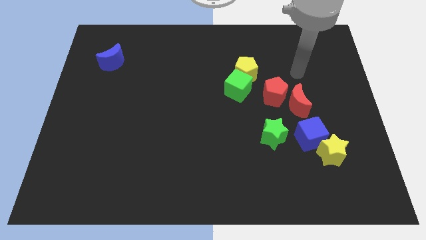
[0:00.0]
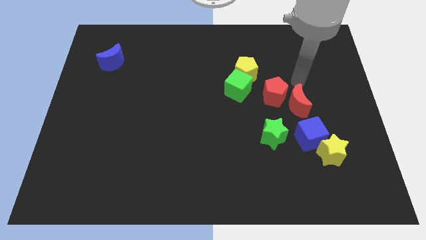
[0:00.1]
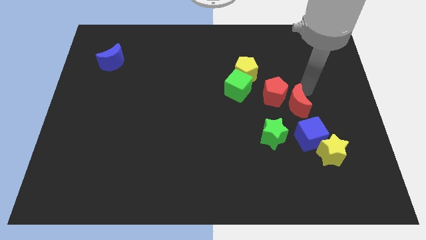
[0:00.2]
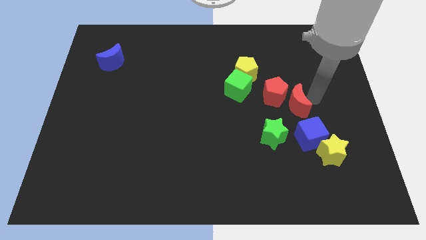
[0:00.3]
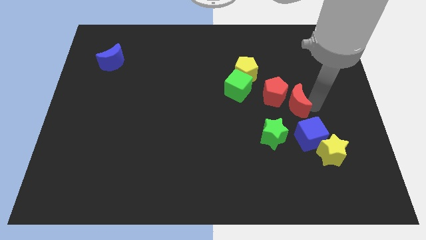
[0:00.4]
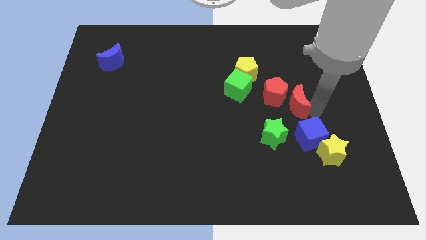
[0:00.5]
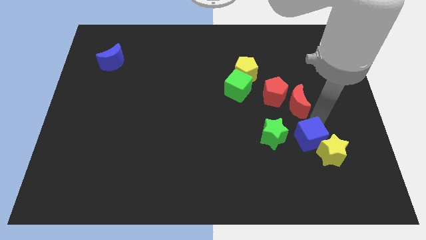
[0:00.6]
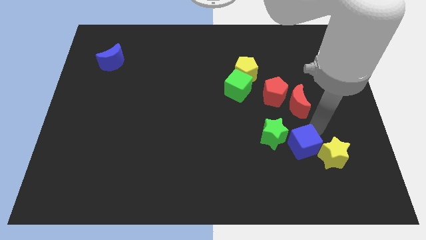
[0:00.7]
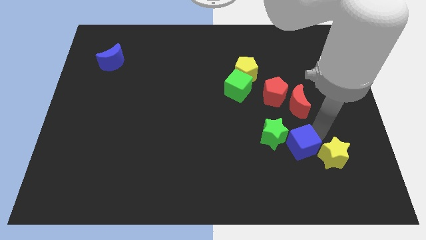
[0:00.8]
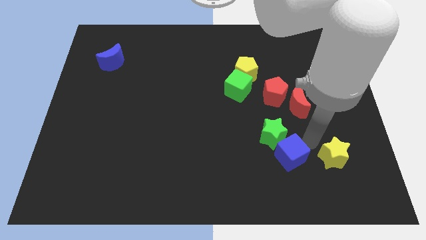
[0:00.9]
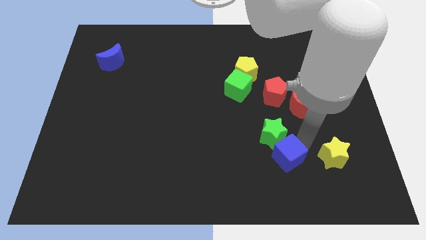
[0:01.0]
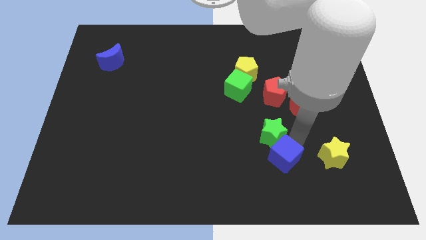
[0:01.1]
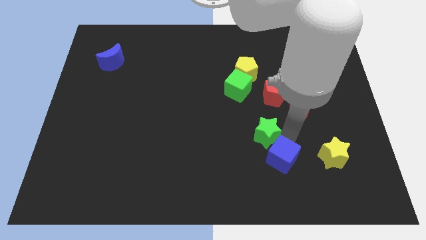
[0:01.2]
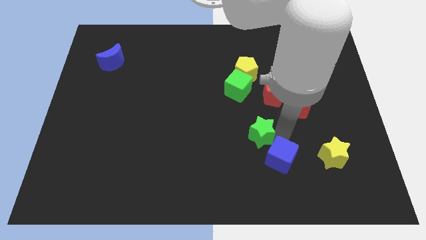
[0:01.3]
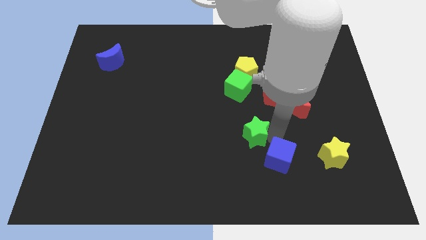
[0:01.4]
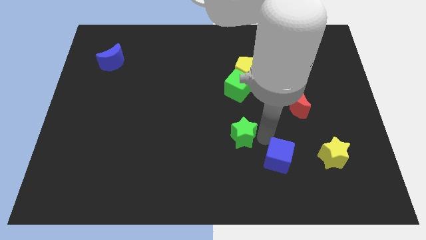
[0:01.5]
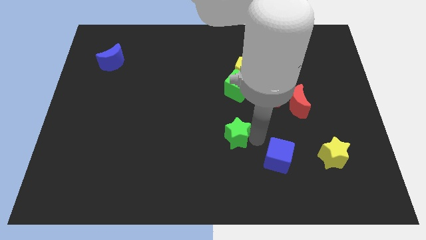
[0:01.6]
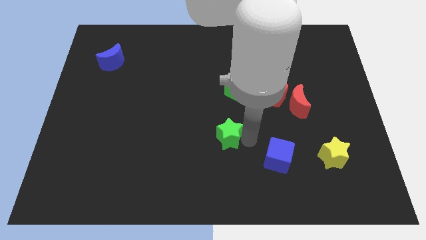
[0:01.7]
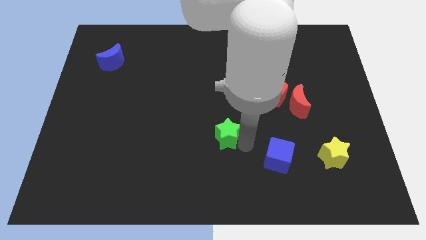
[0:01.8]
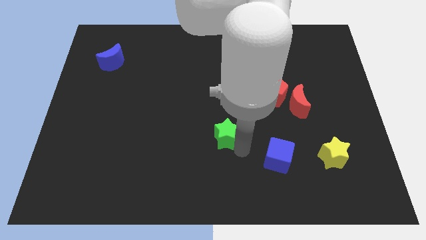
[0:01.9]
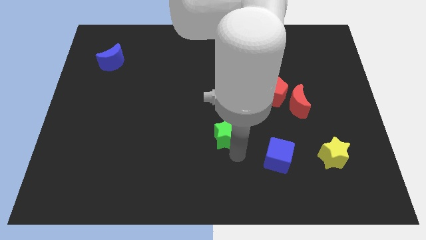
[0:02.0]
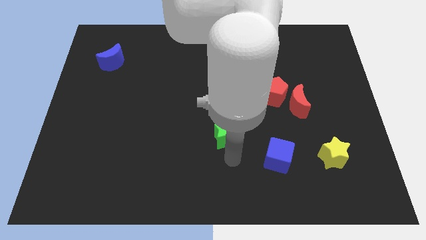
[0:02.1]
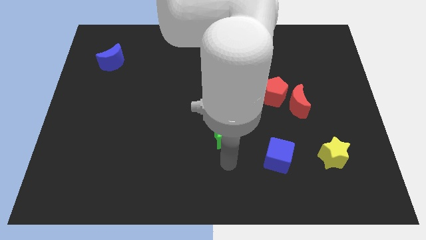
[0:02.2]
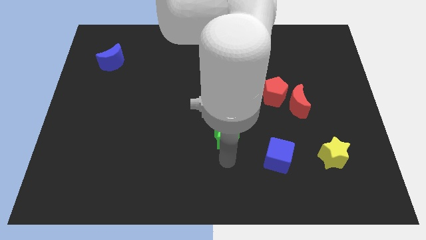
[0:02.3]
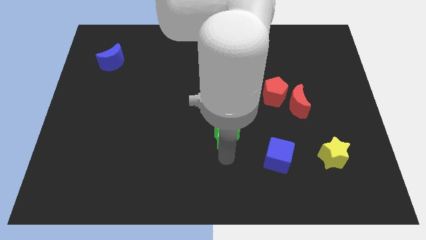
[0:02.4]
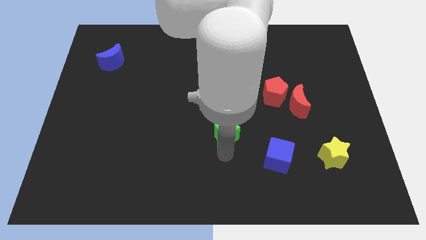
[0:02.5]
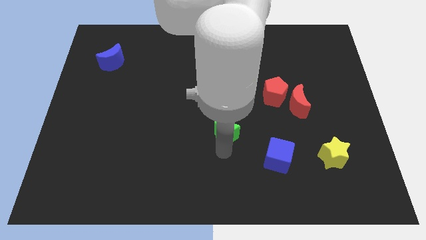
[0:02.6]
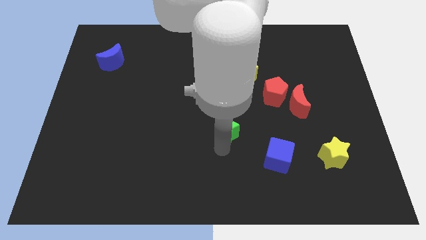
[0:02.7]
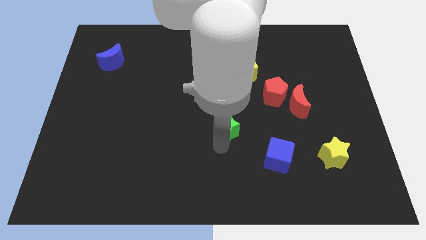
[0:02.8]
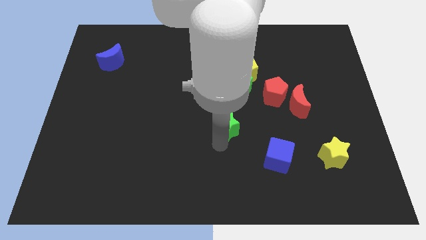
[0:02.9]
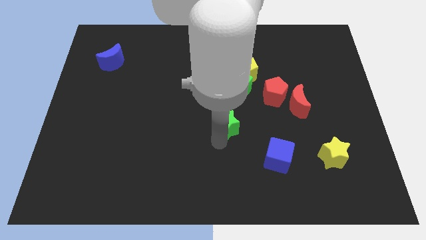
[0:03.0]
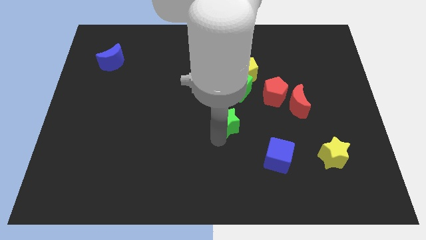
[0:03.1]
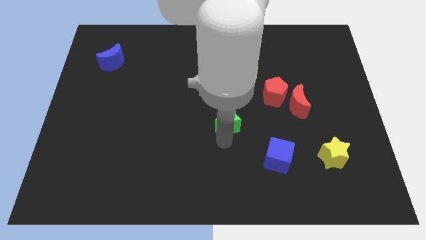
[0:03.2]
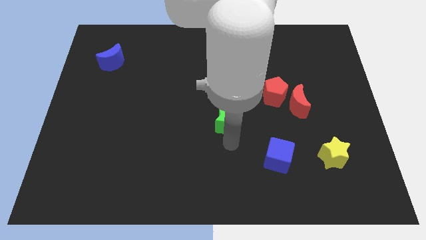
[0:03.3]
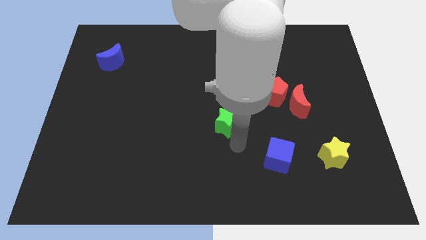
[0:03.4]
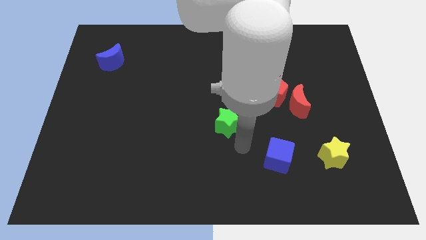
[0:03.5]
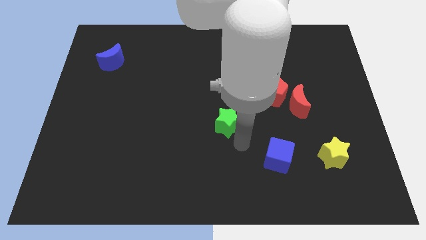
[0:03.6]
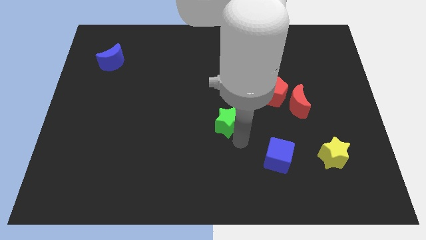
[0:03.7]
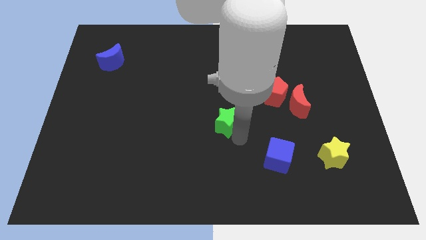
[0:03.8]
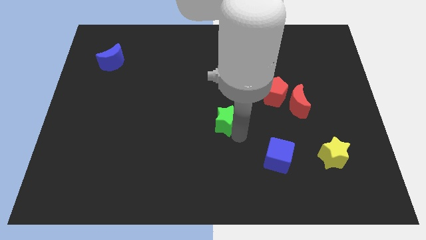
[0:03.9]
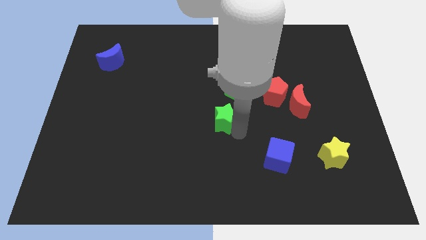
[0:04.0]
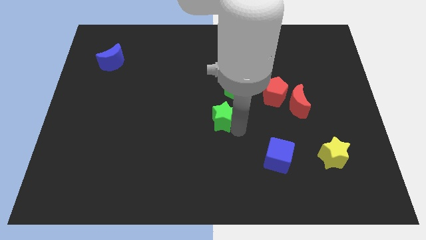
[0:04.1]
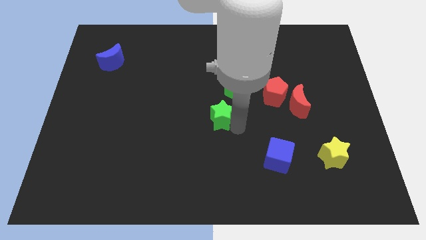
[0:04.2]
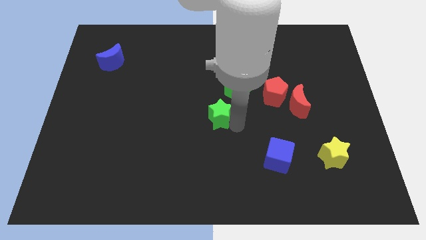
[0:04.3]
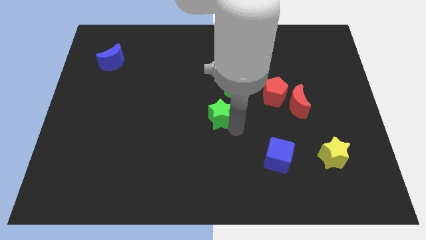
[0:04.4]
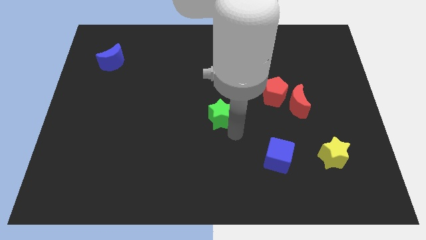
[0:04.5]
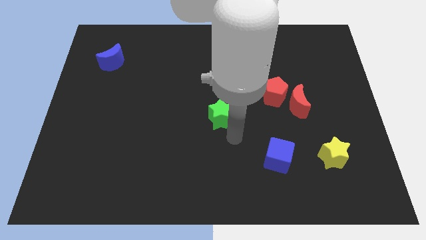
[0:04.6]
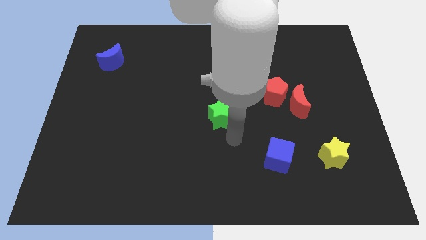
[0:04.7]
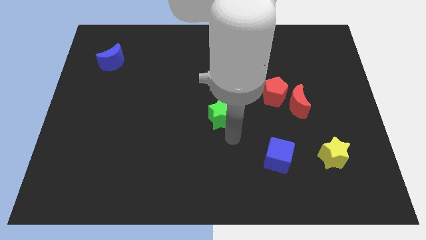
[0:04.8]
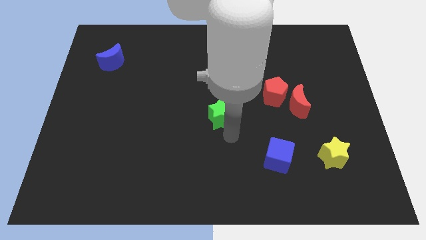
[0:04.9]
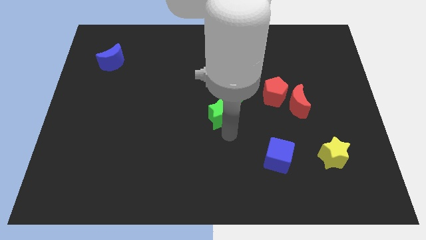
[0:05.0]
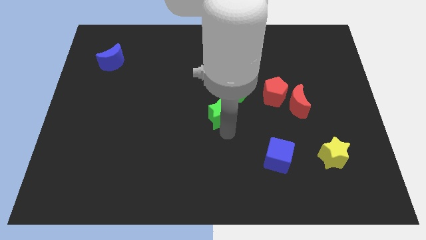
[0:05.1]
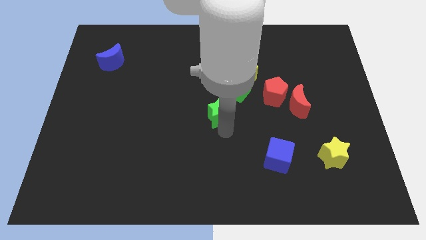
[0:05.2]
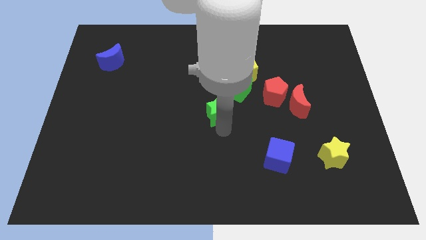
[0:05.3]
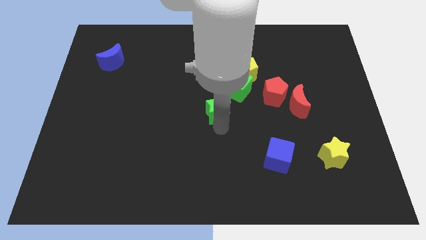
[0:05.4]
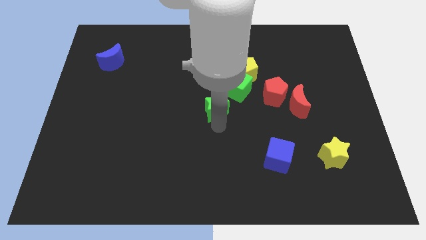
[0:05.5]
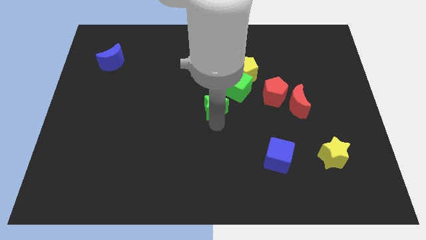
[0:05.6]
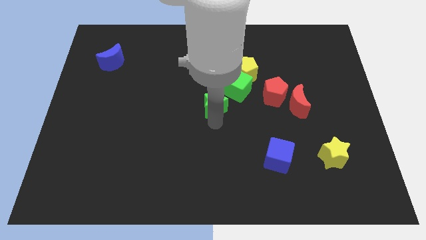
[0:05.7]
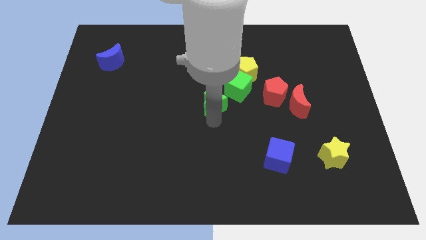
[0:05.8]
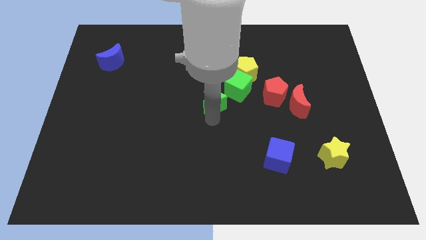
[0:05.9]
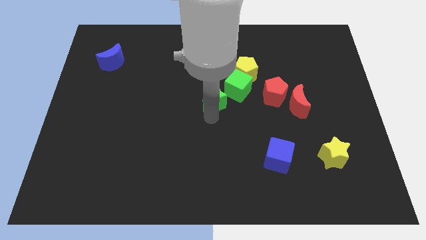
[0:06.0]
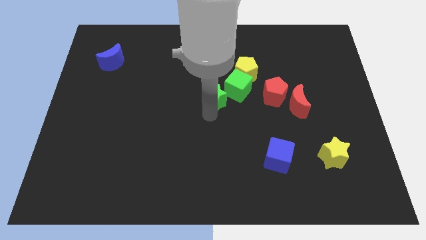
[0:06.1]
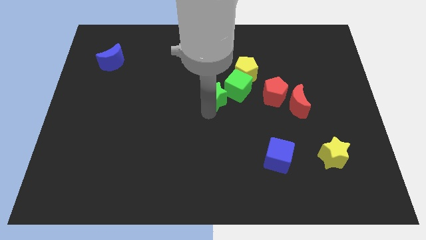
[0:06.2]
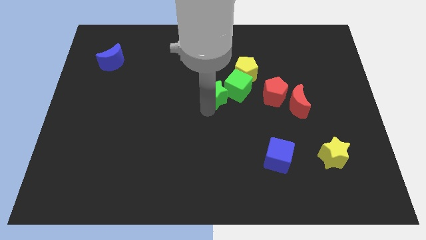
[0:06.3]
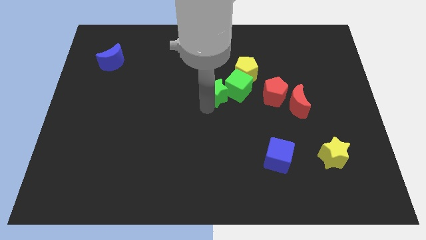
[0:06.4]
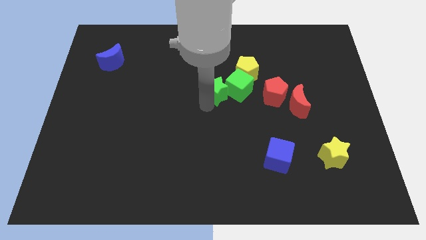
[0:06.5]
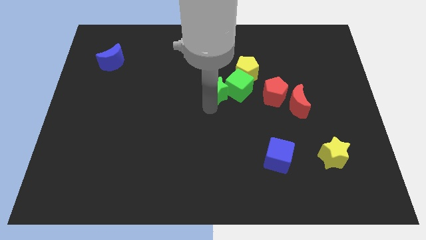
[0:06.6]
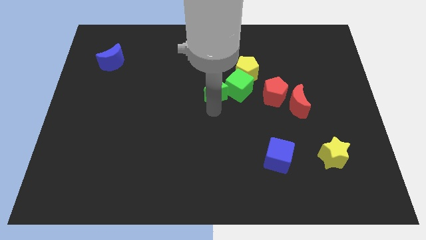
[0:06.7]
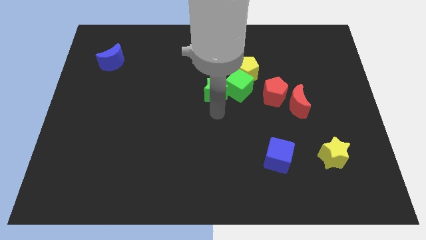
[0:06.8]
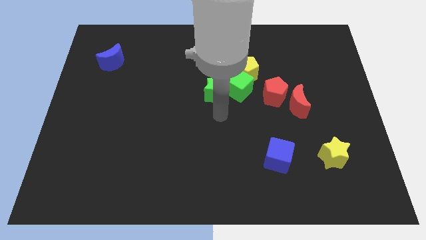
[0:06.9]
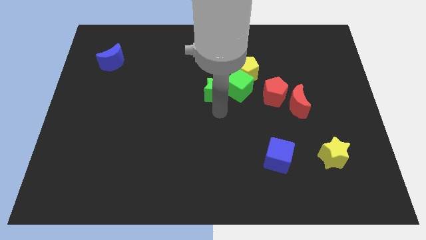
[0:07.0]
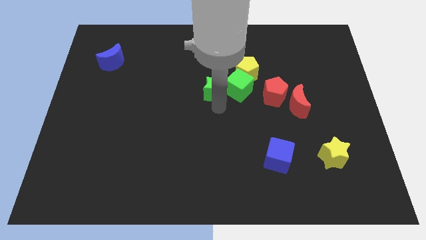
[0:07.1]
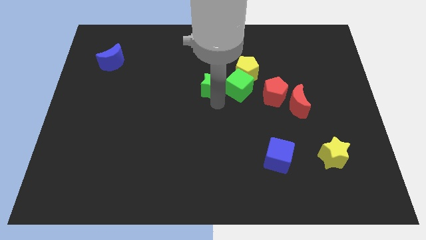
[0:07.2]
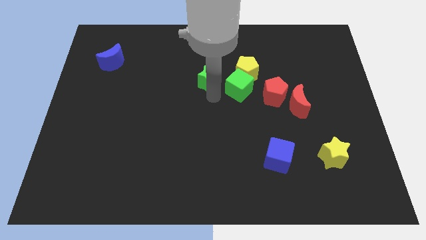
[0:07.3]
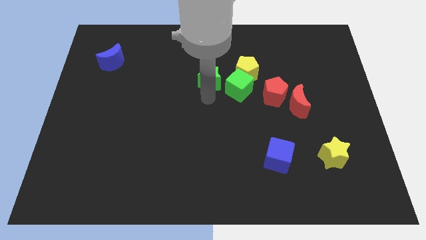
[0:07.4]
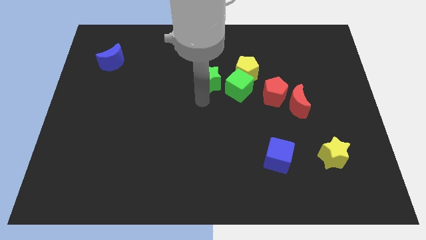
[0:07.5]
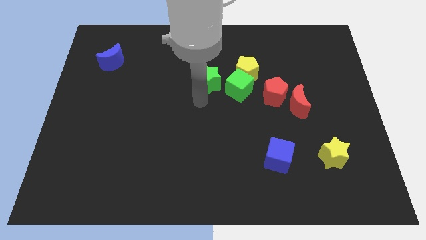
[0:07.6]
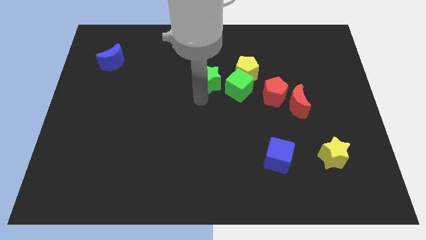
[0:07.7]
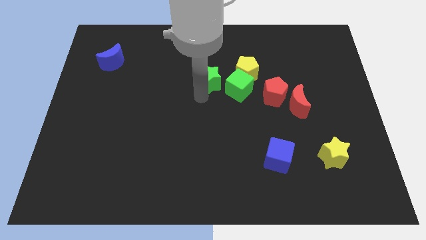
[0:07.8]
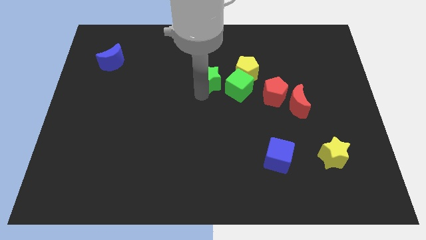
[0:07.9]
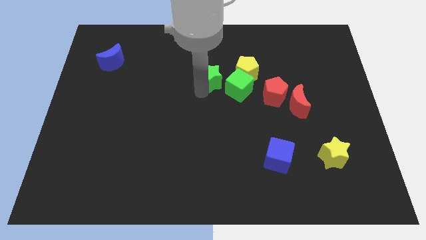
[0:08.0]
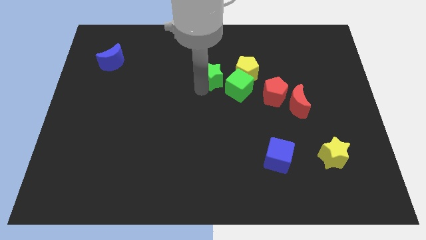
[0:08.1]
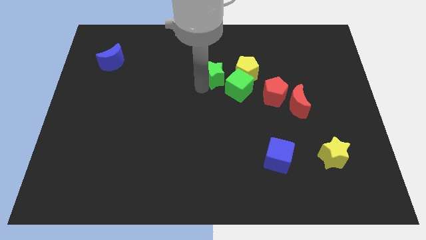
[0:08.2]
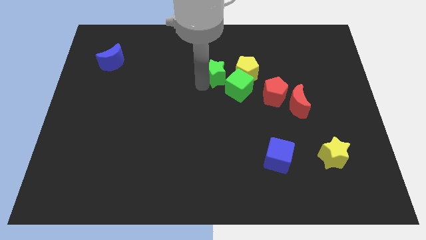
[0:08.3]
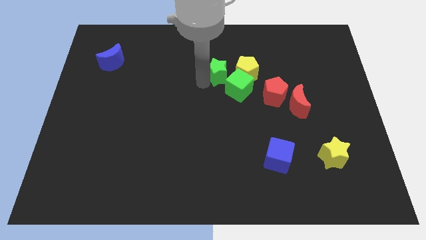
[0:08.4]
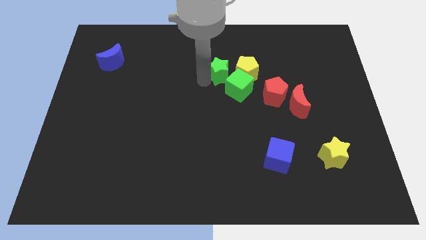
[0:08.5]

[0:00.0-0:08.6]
put the green star to the top side of the green cube
